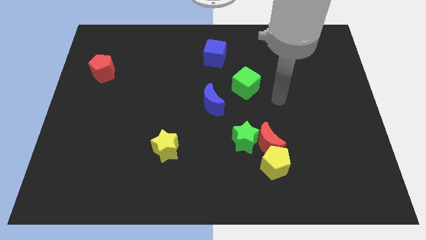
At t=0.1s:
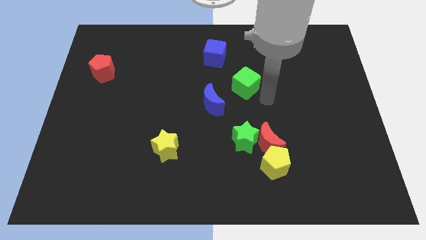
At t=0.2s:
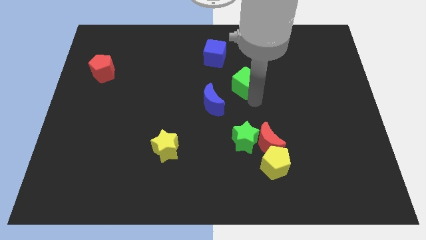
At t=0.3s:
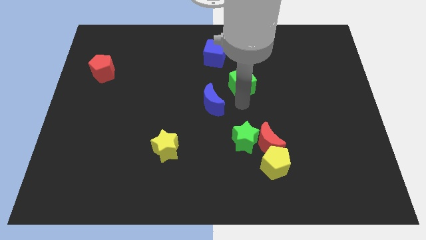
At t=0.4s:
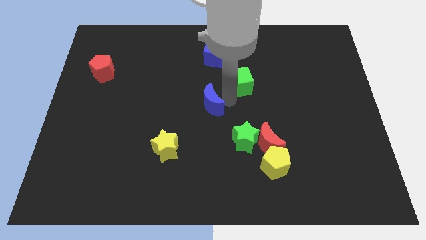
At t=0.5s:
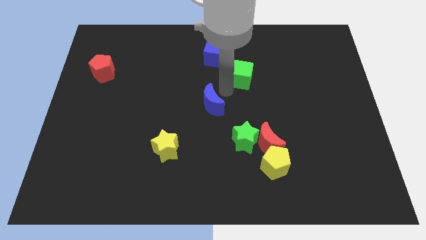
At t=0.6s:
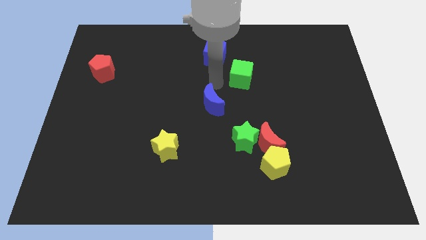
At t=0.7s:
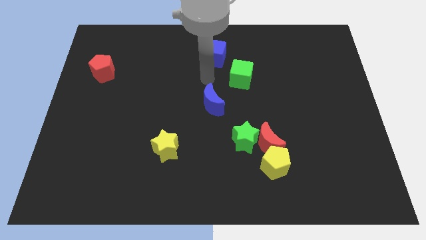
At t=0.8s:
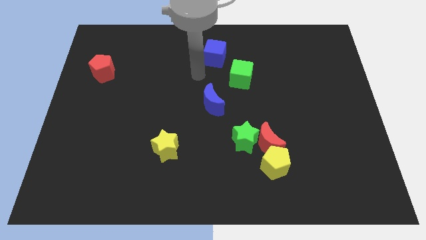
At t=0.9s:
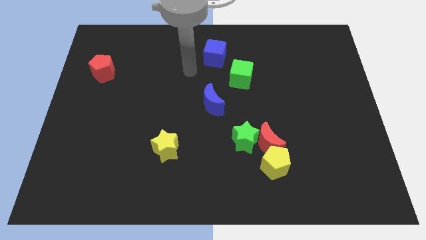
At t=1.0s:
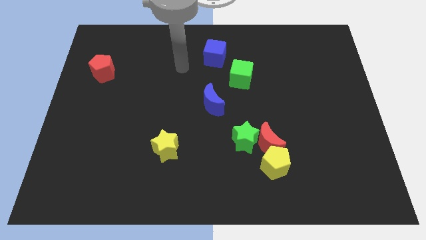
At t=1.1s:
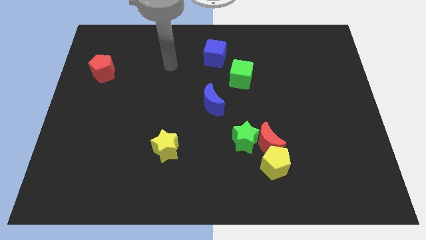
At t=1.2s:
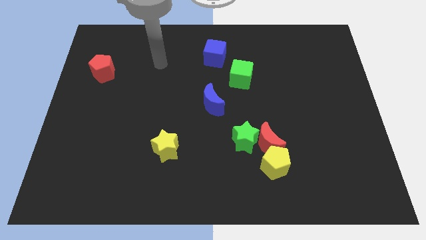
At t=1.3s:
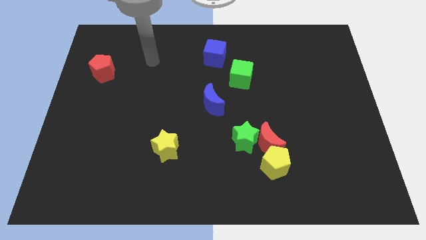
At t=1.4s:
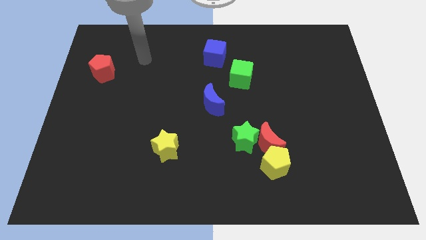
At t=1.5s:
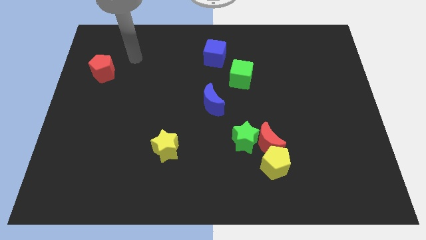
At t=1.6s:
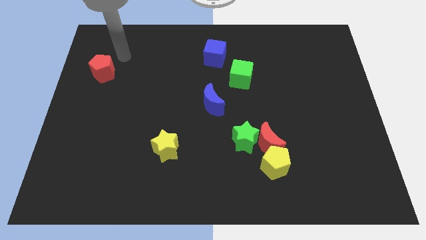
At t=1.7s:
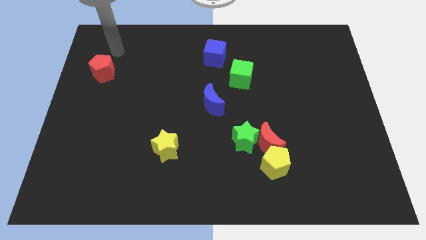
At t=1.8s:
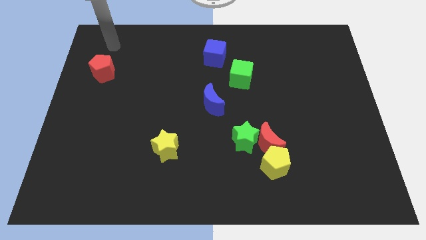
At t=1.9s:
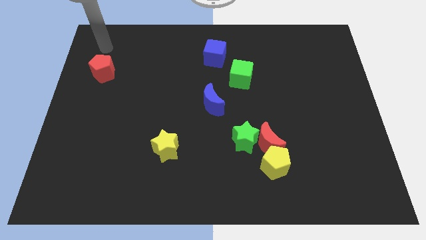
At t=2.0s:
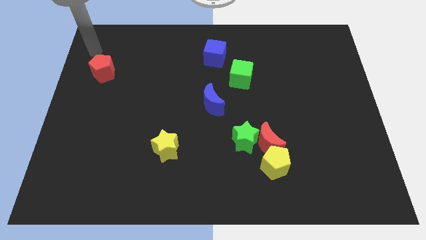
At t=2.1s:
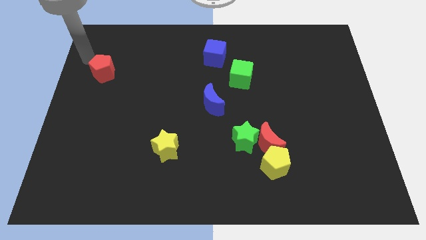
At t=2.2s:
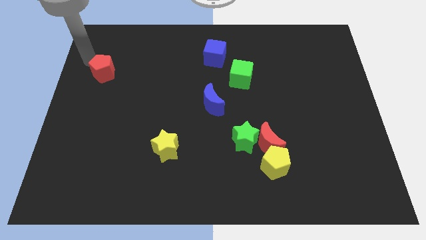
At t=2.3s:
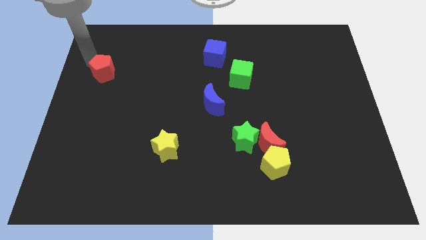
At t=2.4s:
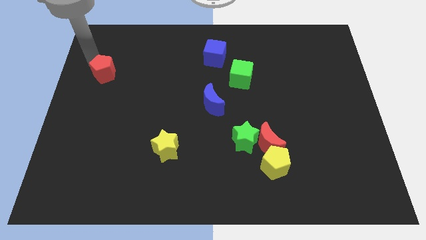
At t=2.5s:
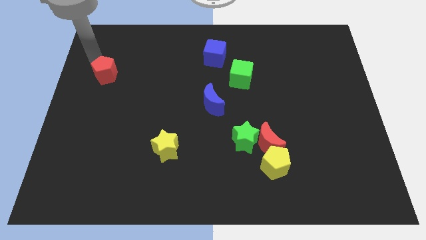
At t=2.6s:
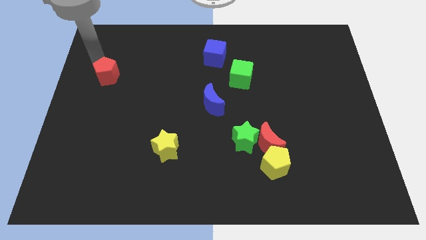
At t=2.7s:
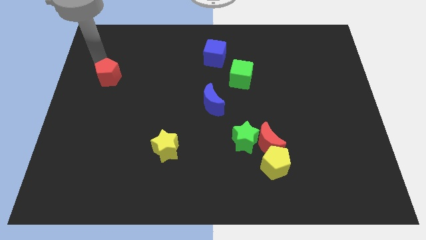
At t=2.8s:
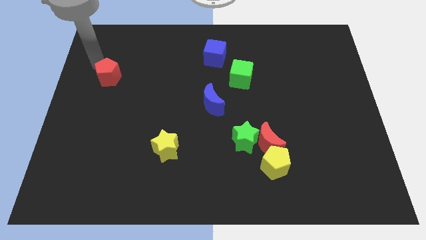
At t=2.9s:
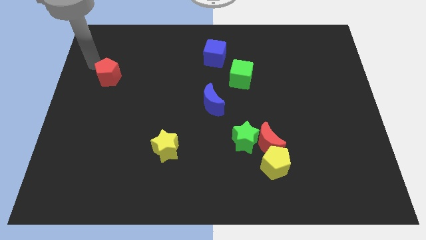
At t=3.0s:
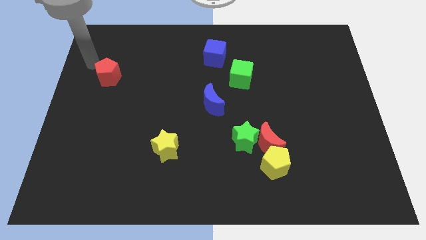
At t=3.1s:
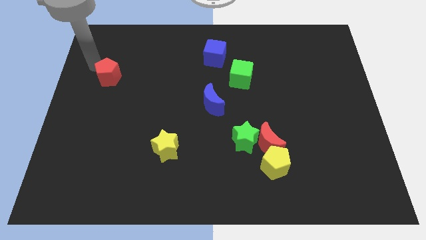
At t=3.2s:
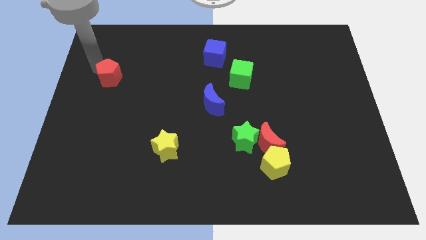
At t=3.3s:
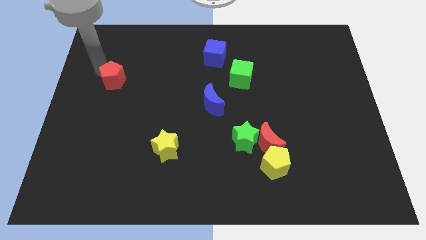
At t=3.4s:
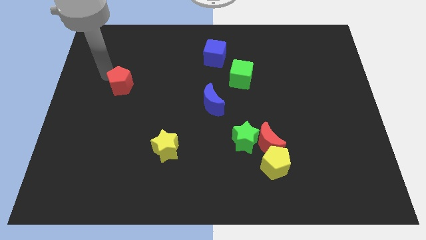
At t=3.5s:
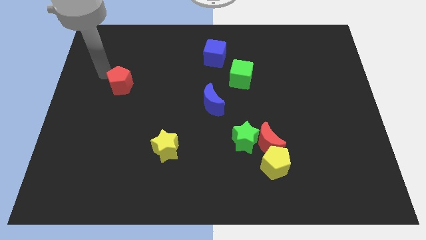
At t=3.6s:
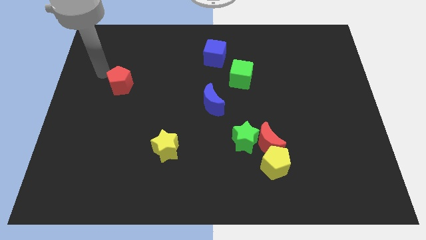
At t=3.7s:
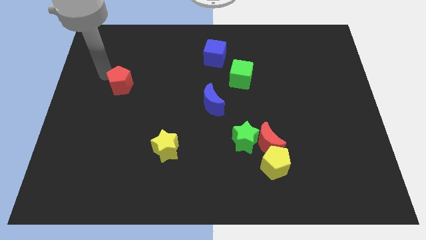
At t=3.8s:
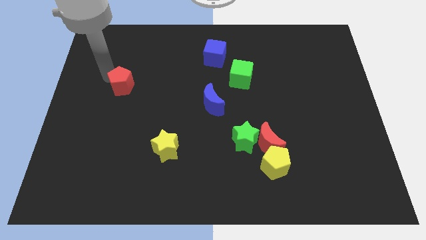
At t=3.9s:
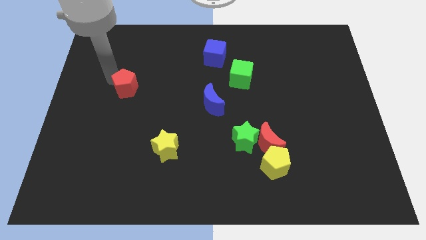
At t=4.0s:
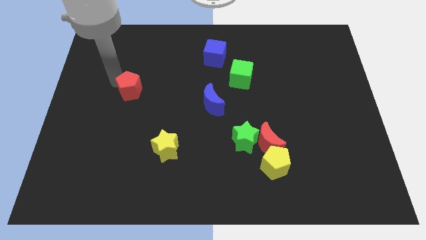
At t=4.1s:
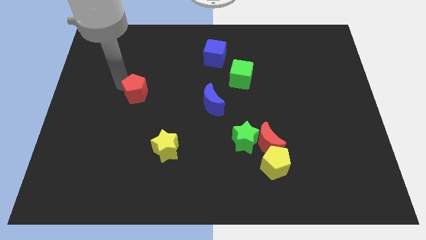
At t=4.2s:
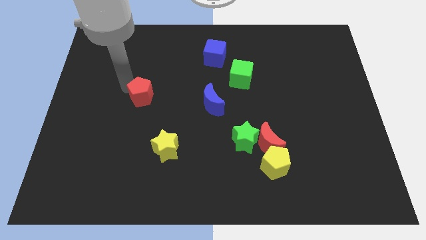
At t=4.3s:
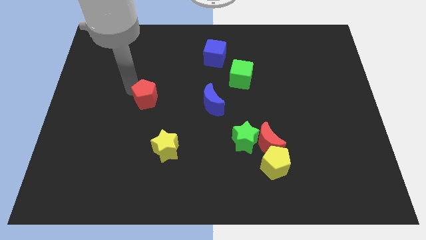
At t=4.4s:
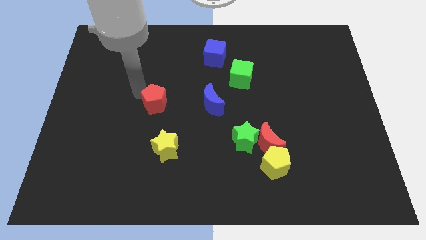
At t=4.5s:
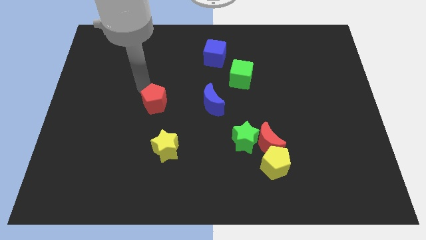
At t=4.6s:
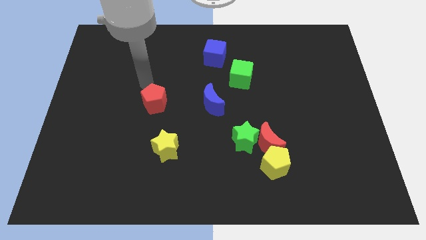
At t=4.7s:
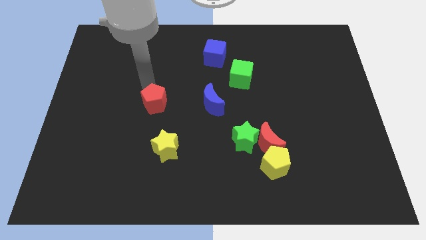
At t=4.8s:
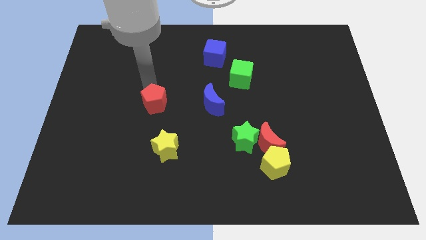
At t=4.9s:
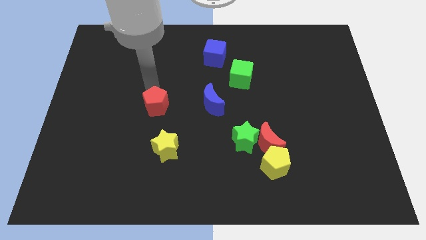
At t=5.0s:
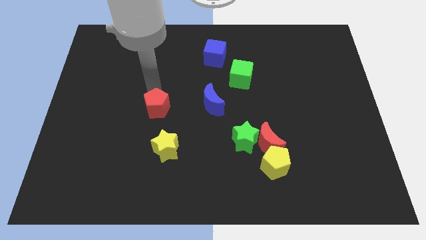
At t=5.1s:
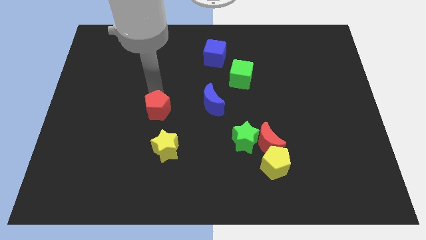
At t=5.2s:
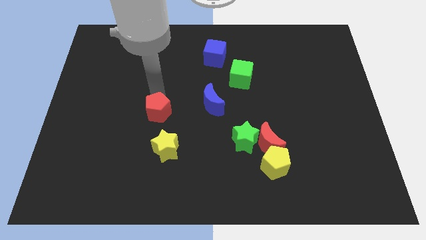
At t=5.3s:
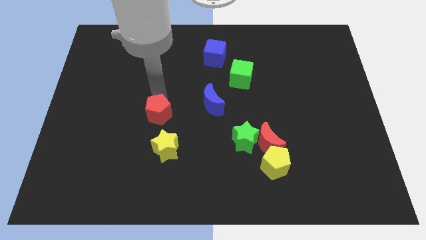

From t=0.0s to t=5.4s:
slide the red pentagon down and to the right

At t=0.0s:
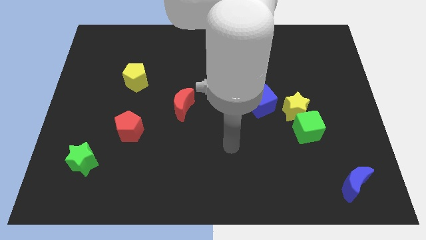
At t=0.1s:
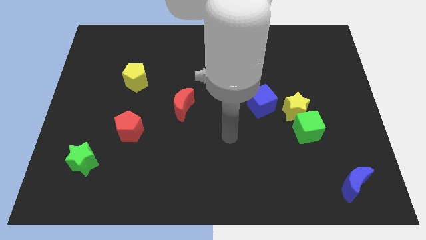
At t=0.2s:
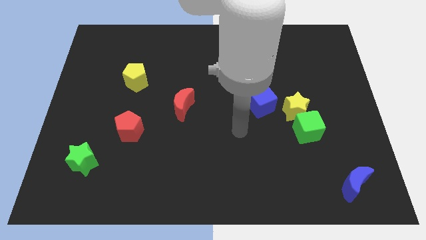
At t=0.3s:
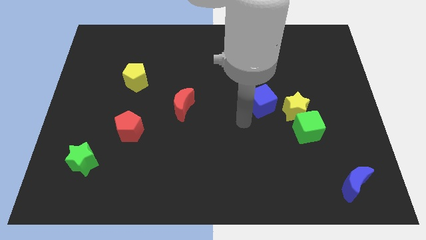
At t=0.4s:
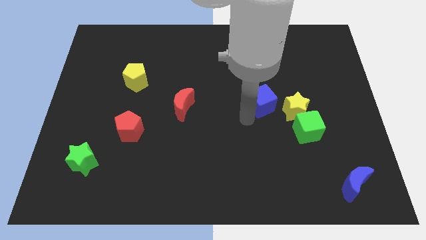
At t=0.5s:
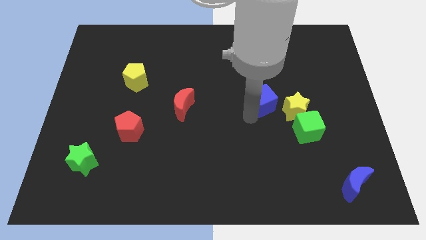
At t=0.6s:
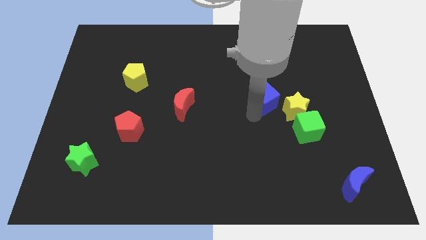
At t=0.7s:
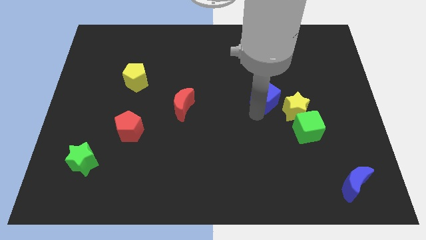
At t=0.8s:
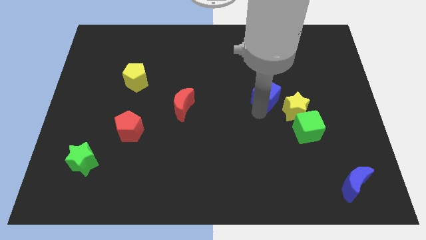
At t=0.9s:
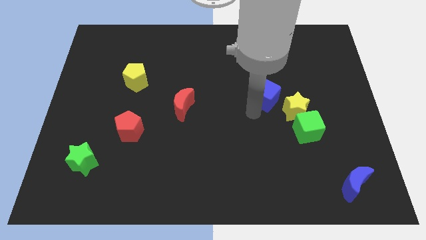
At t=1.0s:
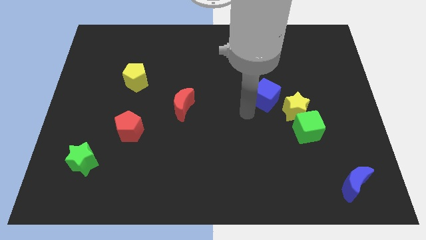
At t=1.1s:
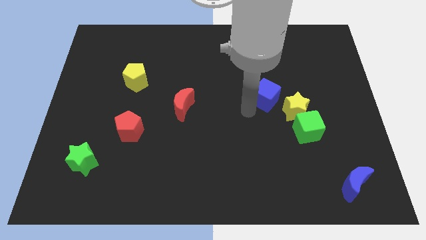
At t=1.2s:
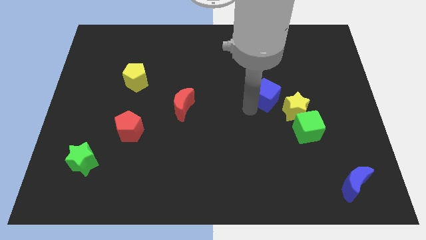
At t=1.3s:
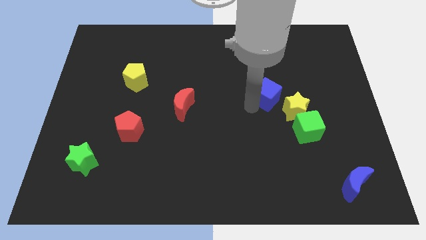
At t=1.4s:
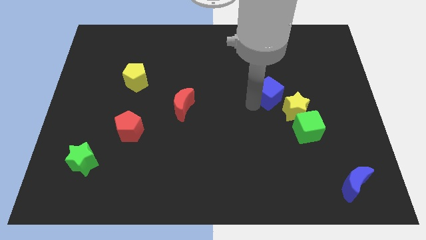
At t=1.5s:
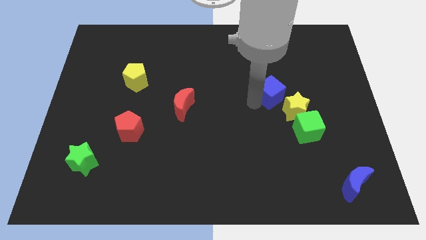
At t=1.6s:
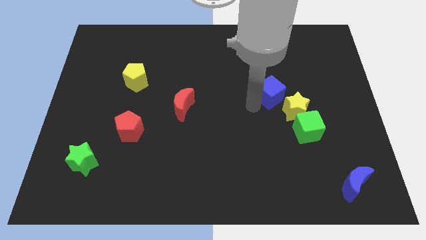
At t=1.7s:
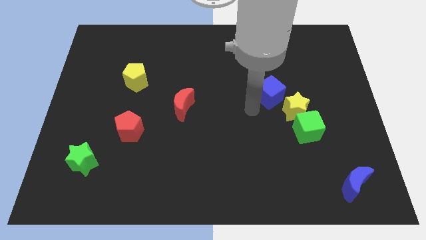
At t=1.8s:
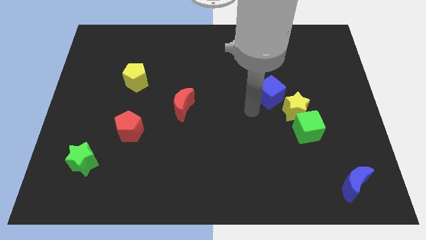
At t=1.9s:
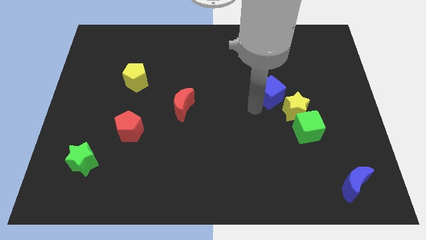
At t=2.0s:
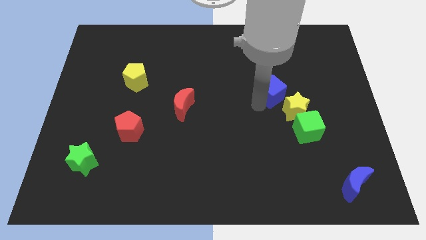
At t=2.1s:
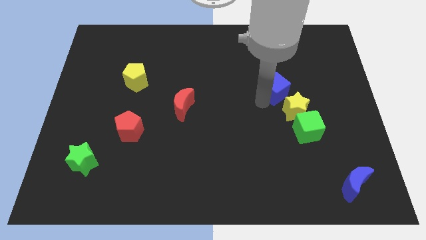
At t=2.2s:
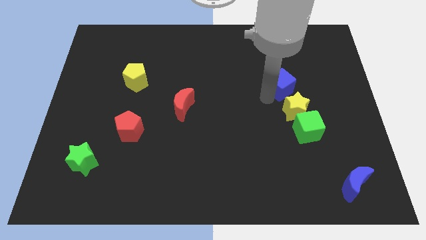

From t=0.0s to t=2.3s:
slide the blue cube diagonally upwards and right a little bit

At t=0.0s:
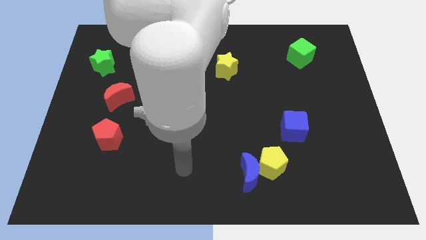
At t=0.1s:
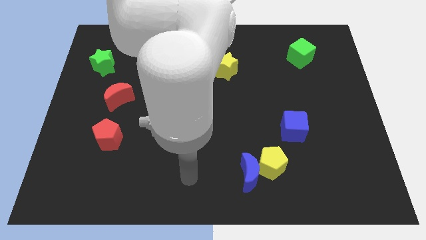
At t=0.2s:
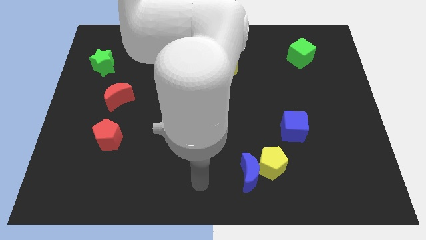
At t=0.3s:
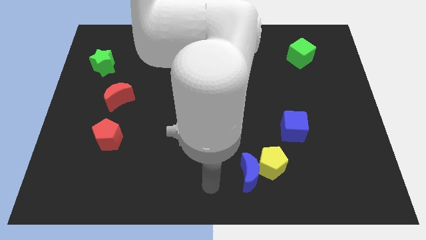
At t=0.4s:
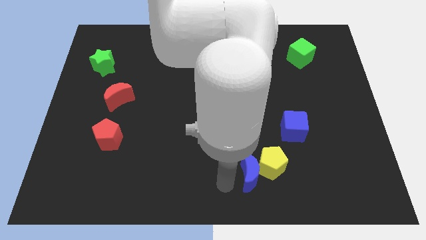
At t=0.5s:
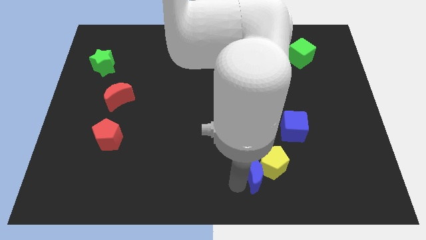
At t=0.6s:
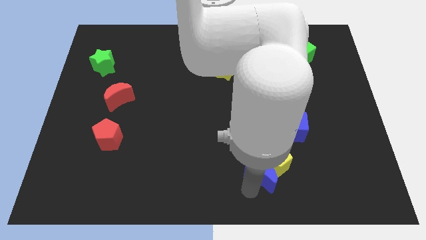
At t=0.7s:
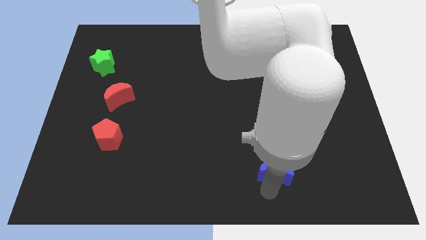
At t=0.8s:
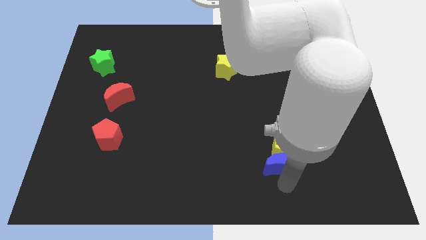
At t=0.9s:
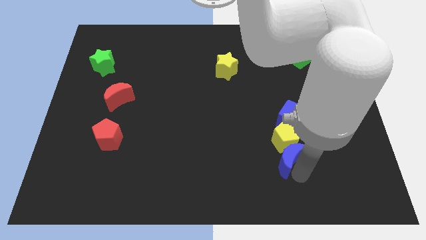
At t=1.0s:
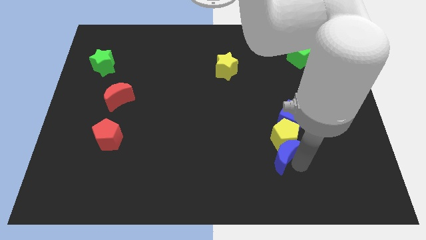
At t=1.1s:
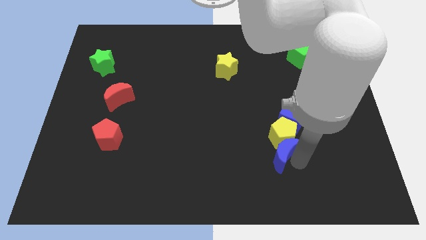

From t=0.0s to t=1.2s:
slightly slide the yellow pentagon upwards
